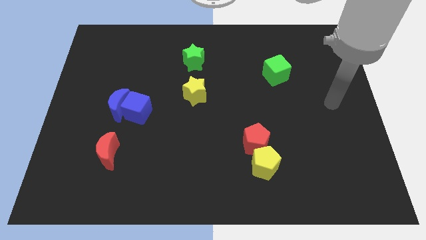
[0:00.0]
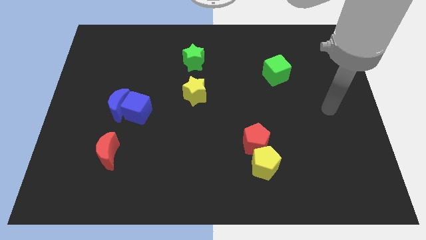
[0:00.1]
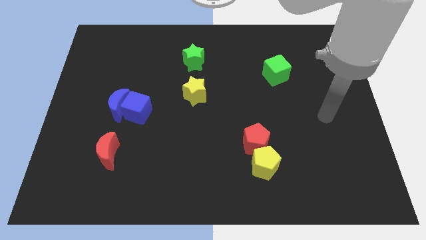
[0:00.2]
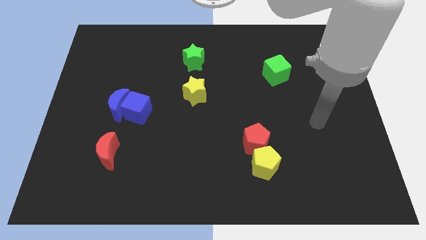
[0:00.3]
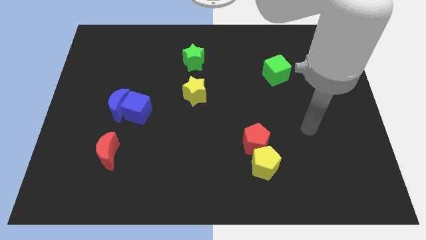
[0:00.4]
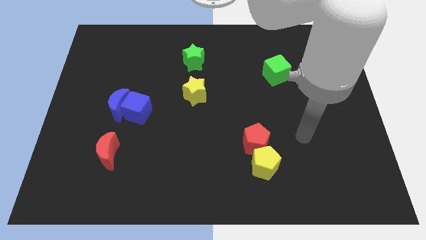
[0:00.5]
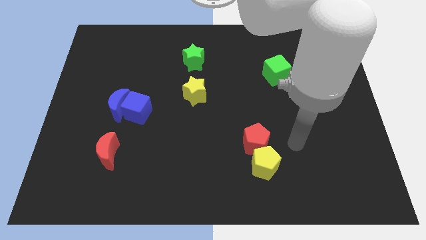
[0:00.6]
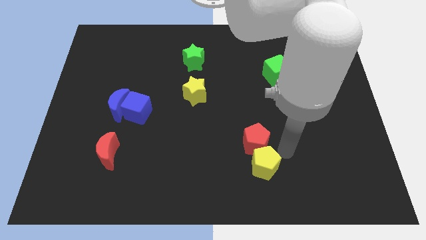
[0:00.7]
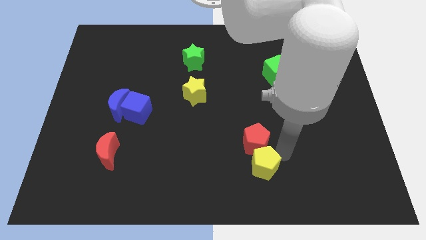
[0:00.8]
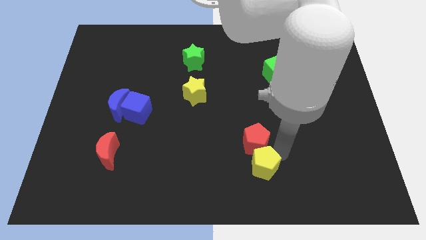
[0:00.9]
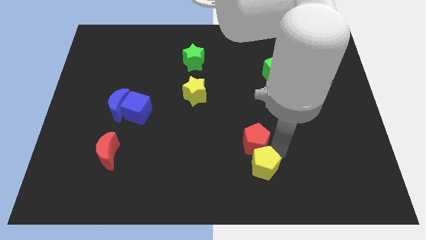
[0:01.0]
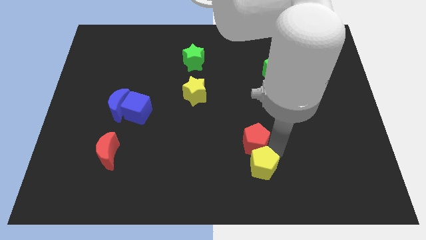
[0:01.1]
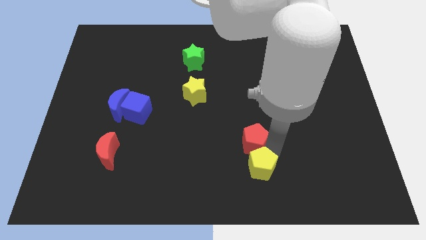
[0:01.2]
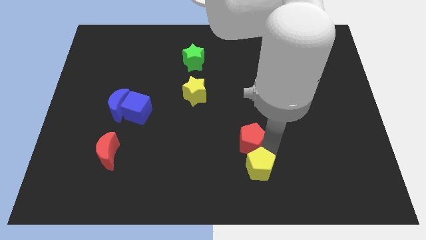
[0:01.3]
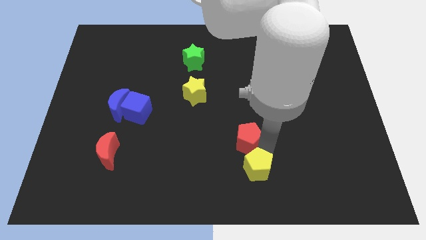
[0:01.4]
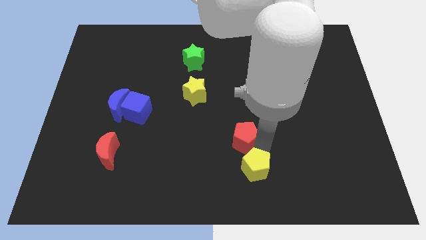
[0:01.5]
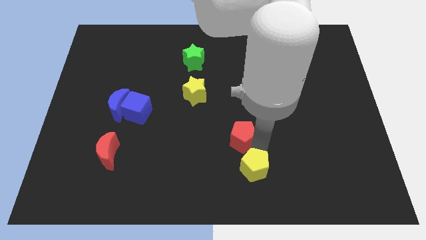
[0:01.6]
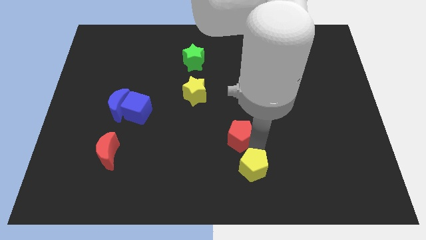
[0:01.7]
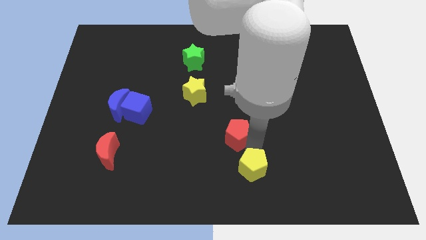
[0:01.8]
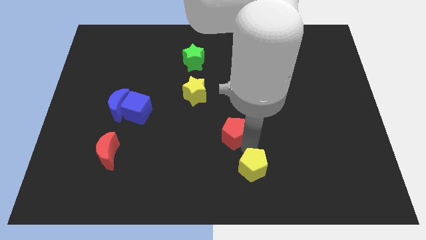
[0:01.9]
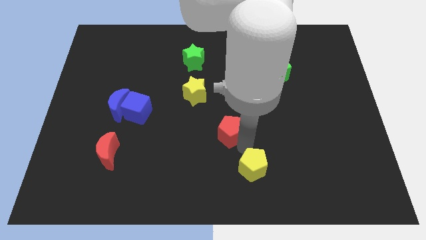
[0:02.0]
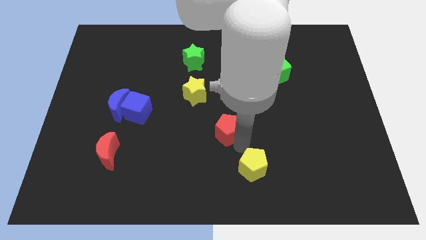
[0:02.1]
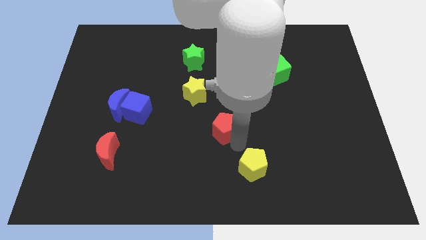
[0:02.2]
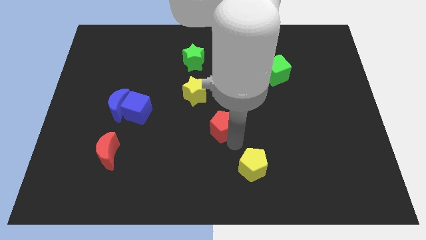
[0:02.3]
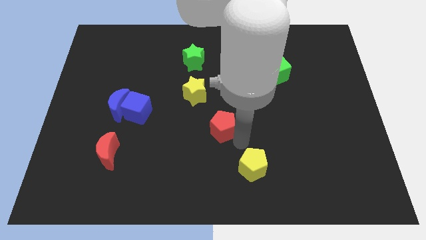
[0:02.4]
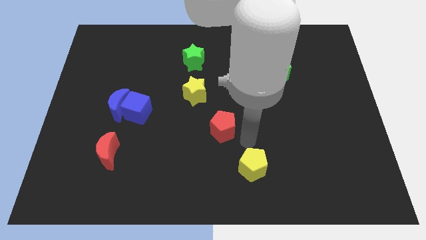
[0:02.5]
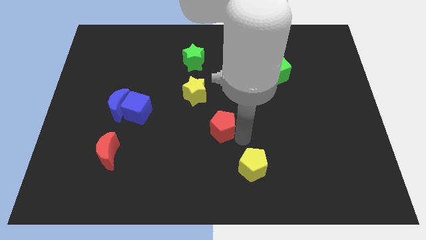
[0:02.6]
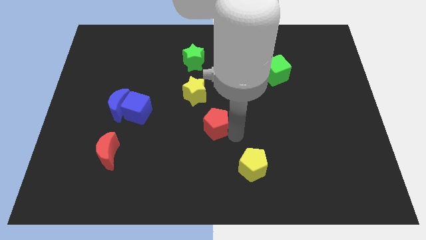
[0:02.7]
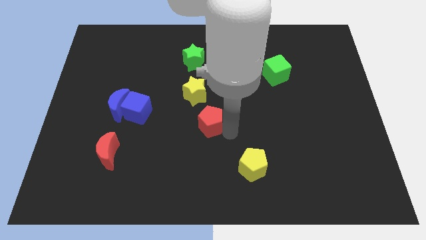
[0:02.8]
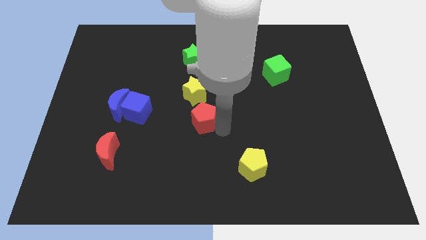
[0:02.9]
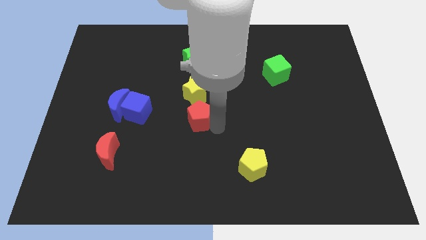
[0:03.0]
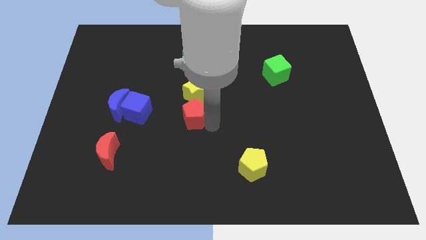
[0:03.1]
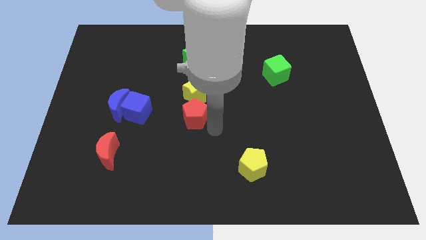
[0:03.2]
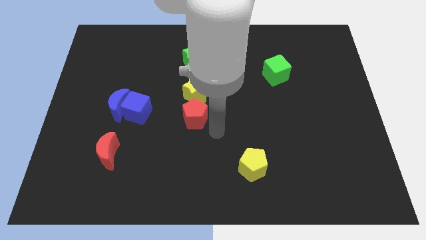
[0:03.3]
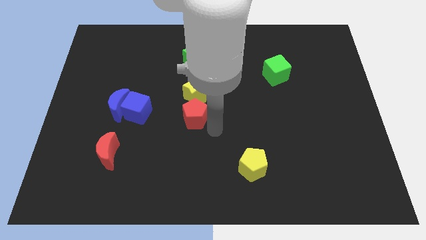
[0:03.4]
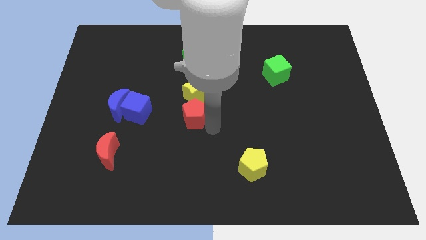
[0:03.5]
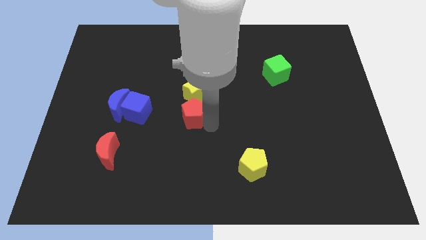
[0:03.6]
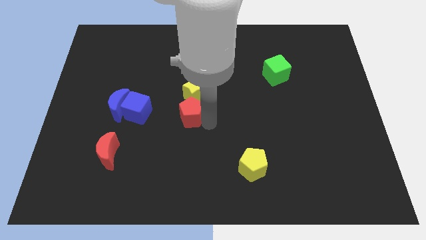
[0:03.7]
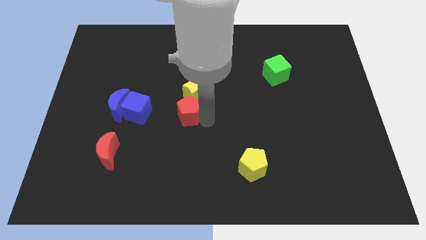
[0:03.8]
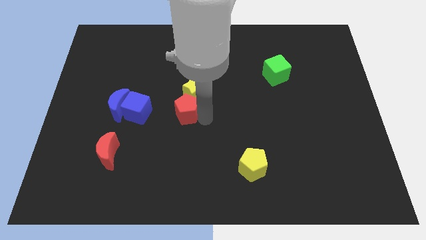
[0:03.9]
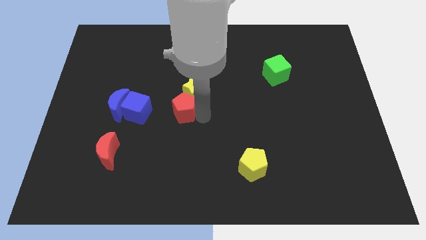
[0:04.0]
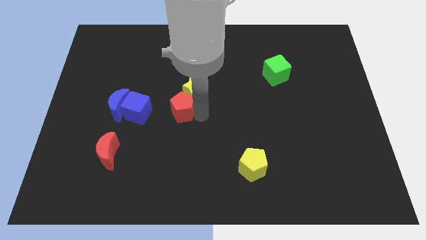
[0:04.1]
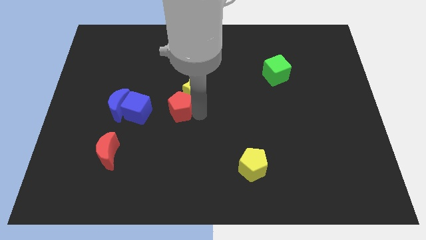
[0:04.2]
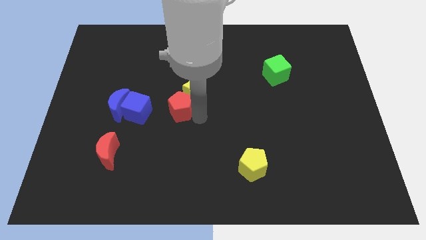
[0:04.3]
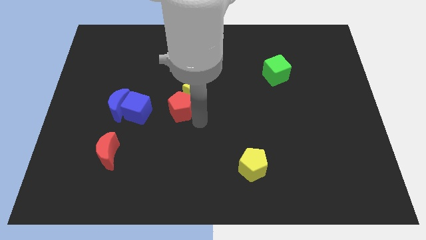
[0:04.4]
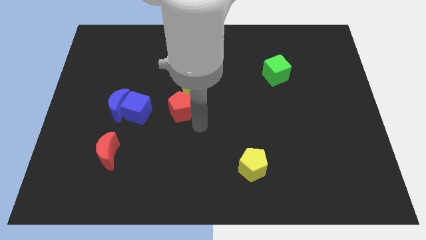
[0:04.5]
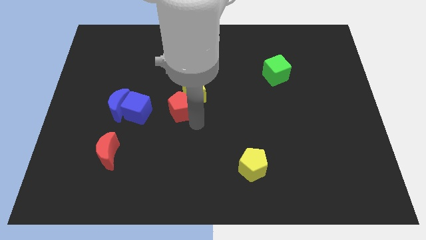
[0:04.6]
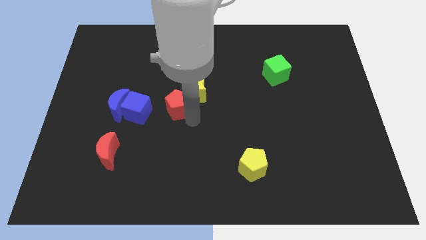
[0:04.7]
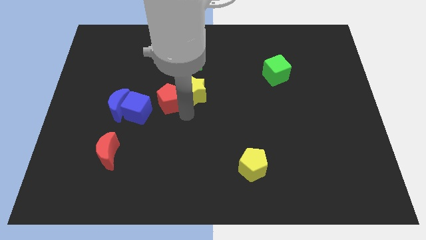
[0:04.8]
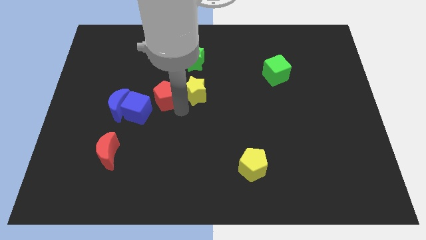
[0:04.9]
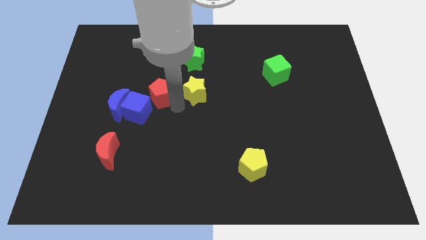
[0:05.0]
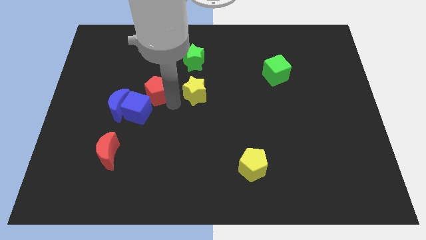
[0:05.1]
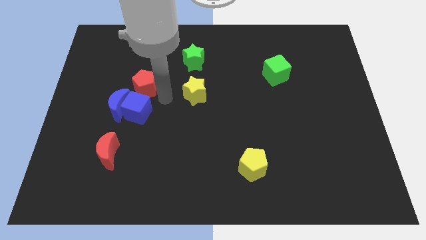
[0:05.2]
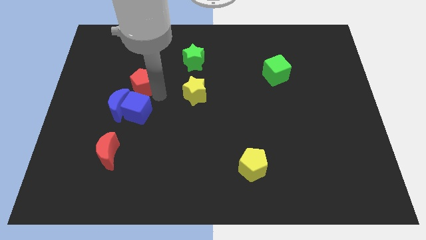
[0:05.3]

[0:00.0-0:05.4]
put the red pentagon to the top side of the blue moon

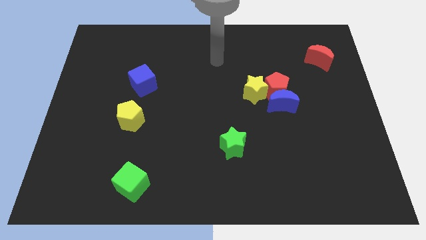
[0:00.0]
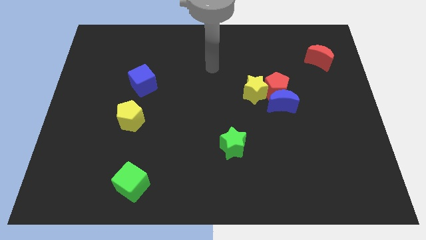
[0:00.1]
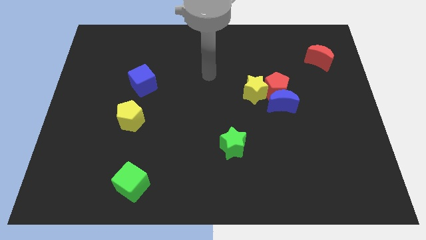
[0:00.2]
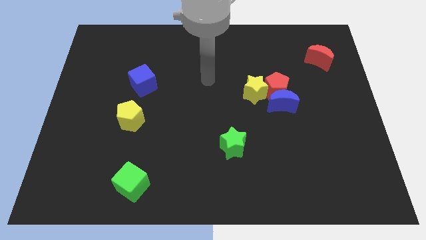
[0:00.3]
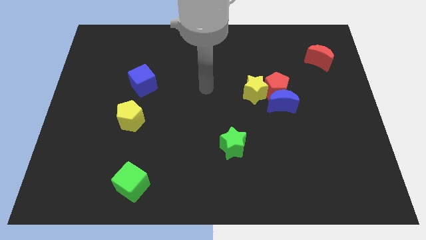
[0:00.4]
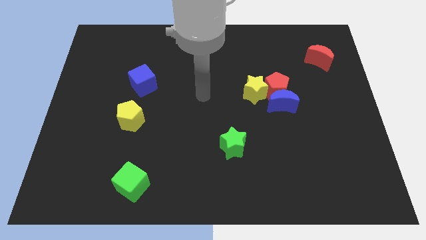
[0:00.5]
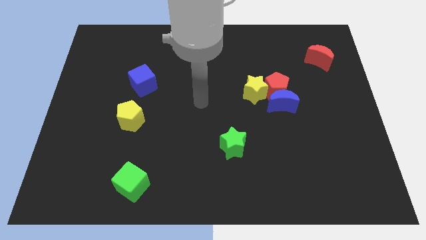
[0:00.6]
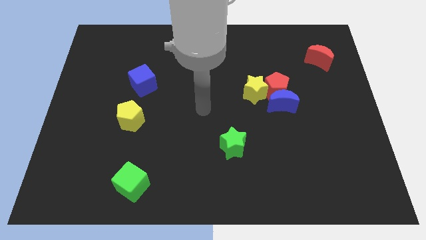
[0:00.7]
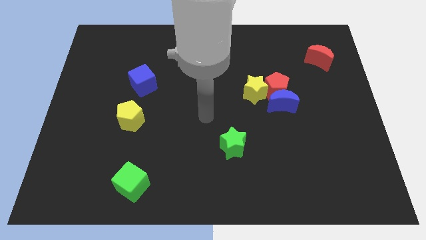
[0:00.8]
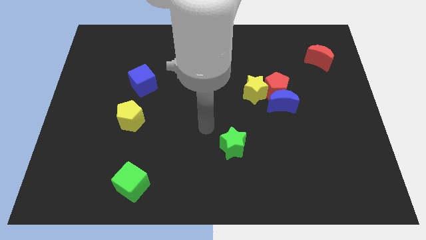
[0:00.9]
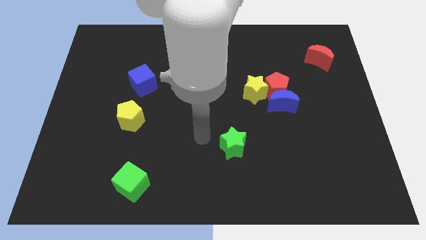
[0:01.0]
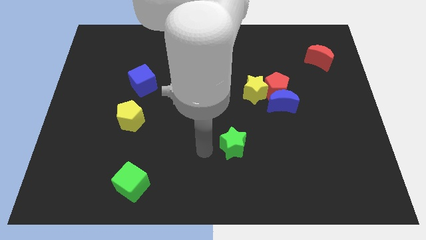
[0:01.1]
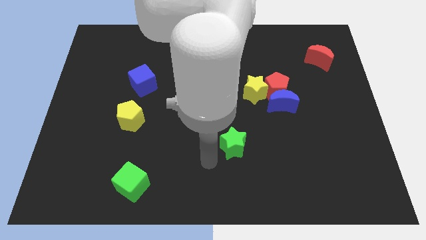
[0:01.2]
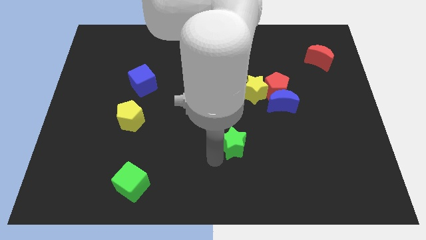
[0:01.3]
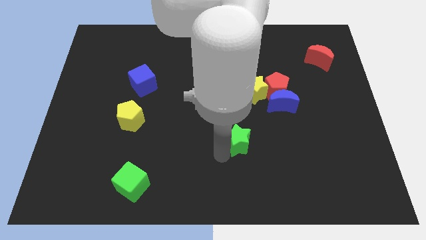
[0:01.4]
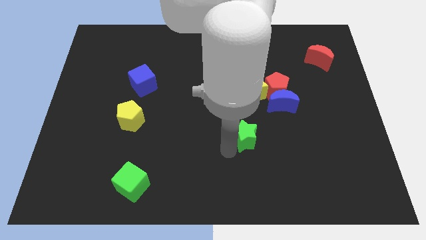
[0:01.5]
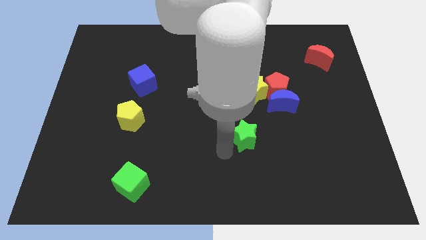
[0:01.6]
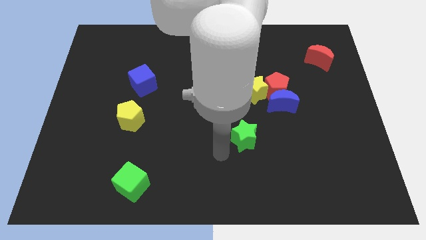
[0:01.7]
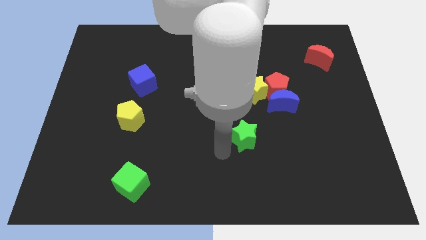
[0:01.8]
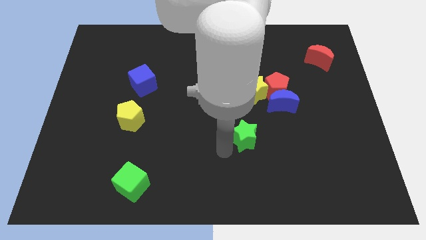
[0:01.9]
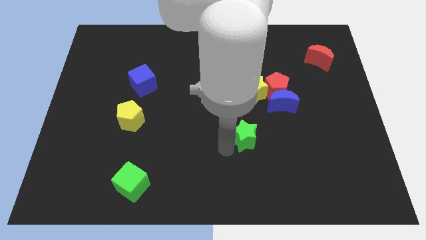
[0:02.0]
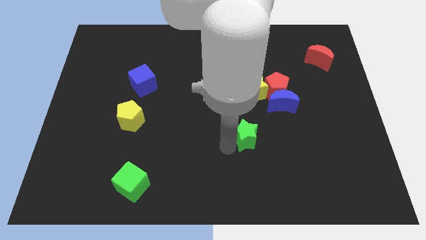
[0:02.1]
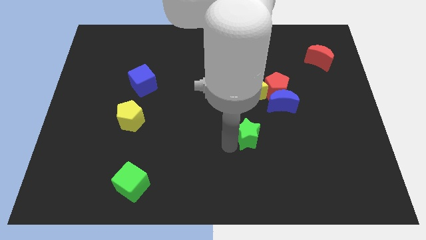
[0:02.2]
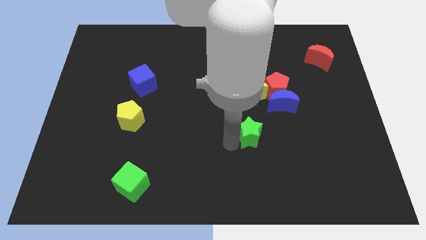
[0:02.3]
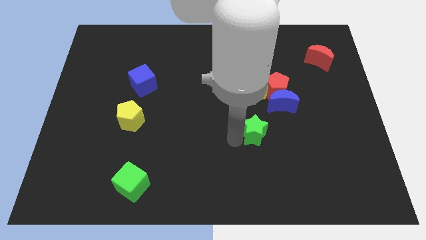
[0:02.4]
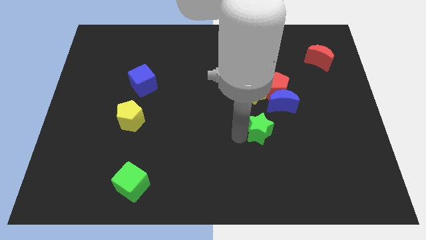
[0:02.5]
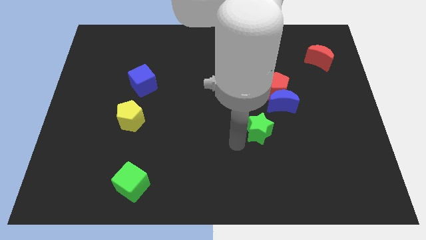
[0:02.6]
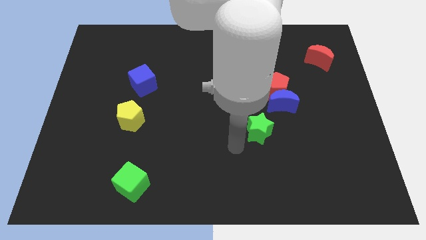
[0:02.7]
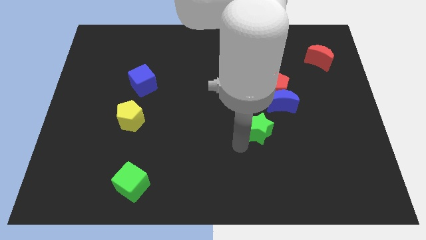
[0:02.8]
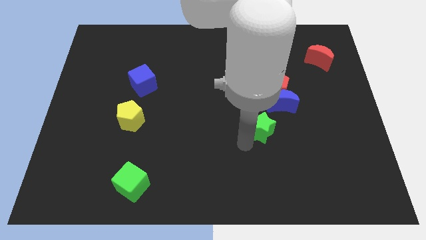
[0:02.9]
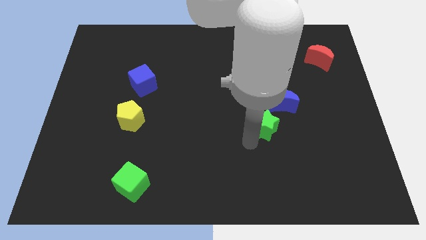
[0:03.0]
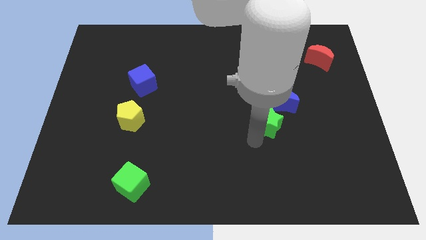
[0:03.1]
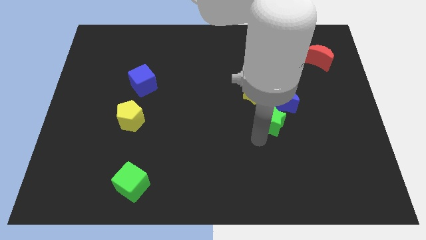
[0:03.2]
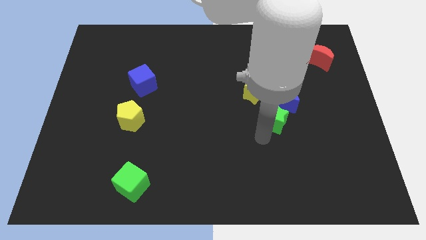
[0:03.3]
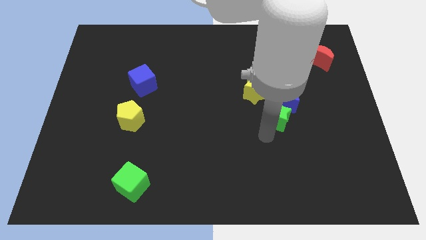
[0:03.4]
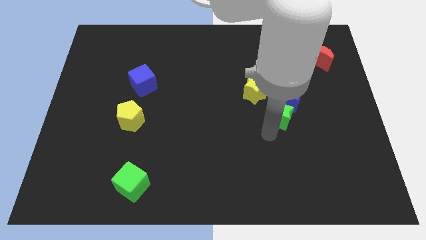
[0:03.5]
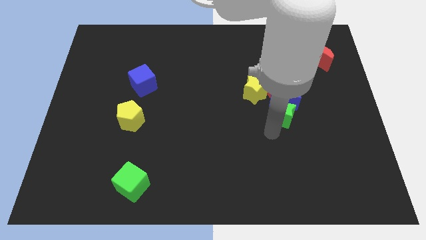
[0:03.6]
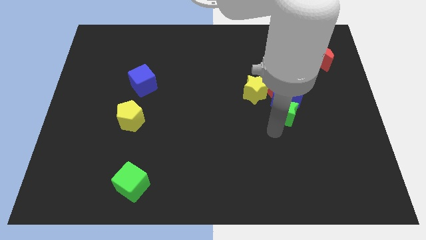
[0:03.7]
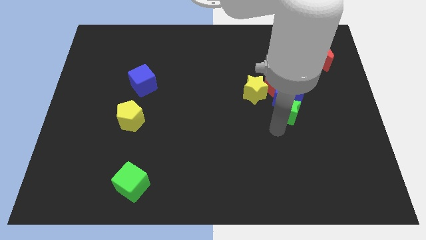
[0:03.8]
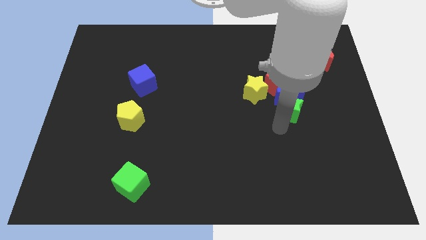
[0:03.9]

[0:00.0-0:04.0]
push the green star to the bottom right side of the red pentagon
